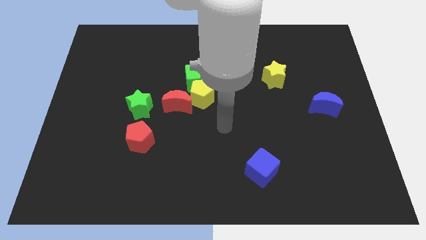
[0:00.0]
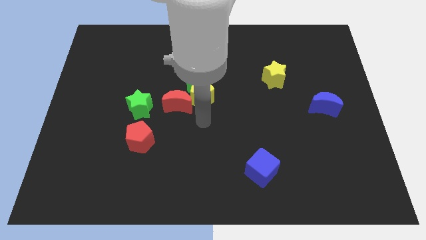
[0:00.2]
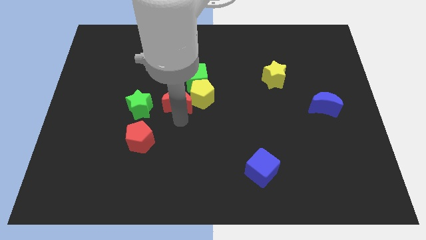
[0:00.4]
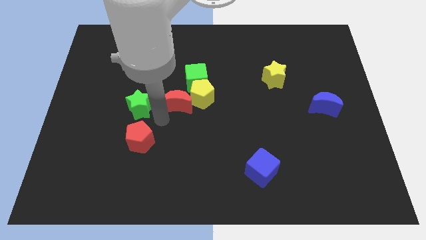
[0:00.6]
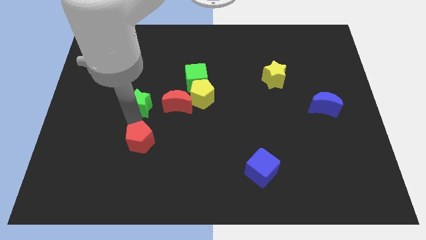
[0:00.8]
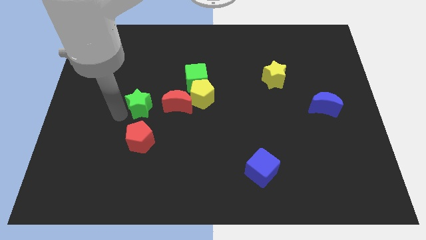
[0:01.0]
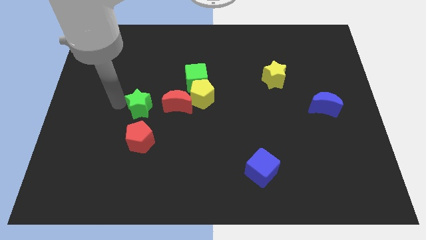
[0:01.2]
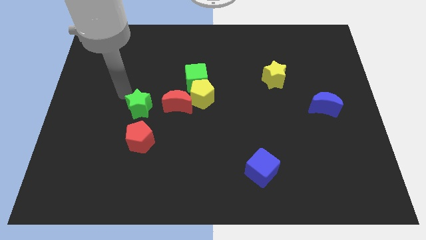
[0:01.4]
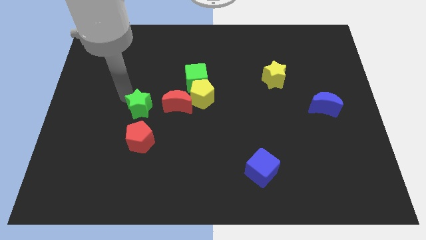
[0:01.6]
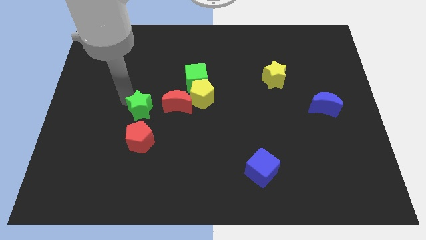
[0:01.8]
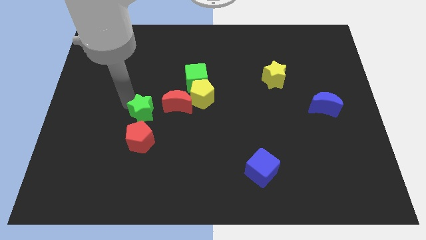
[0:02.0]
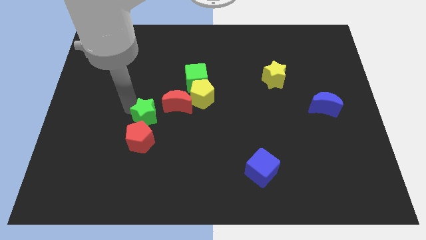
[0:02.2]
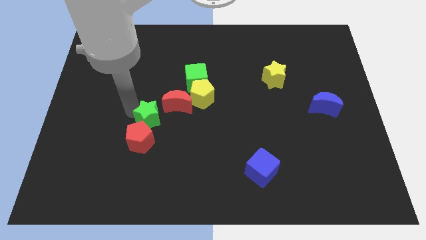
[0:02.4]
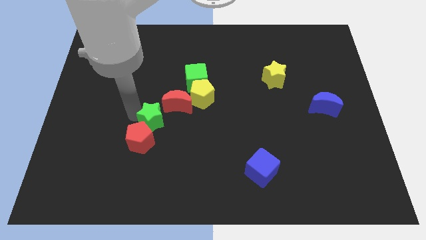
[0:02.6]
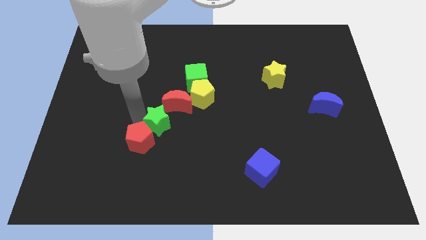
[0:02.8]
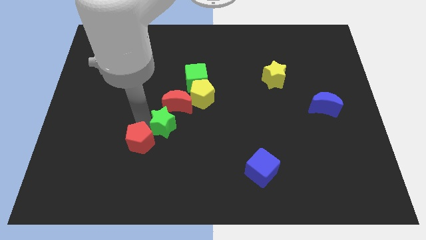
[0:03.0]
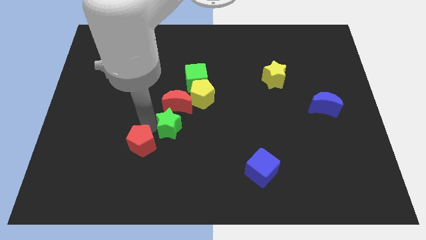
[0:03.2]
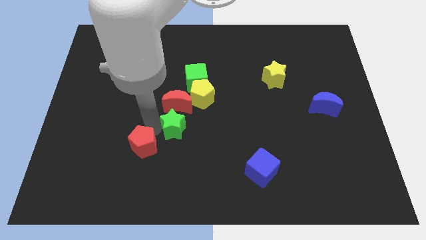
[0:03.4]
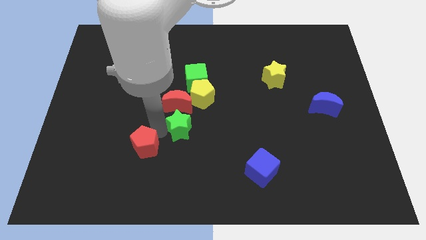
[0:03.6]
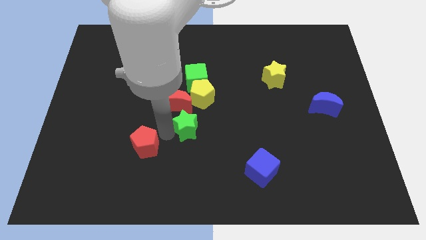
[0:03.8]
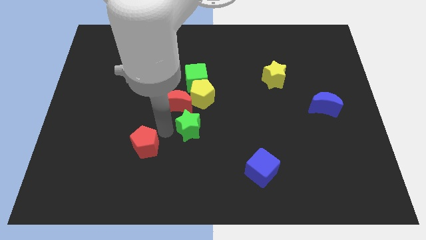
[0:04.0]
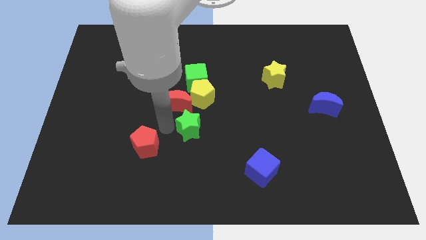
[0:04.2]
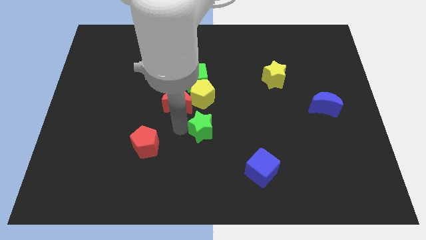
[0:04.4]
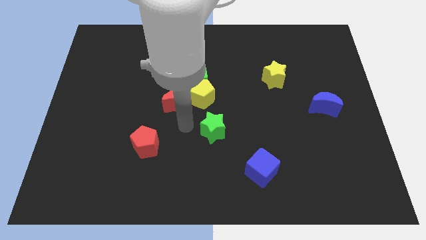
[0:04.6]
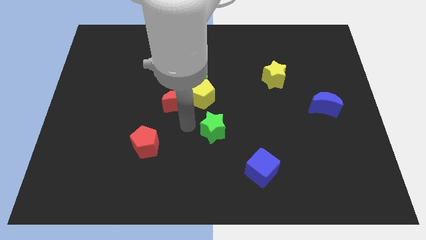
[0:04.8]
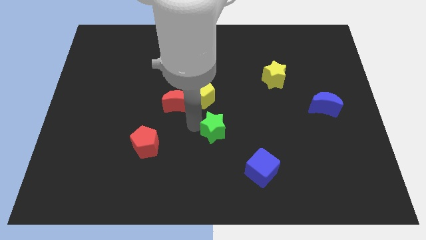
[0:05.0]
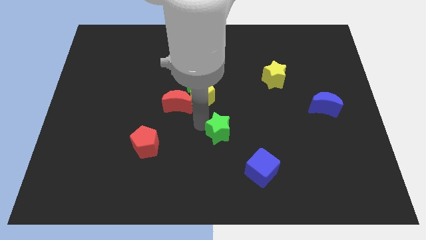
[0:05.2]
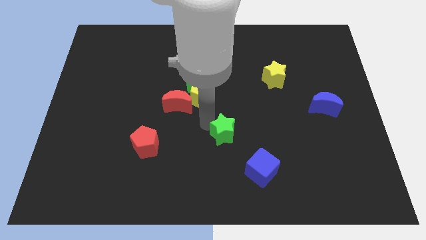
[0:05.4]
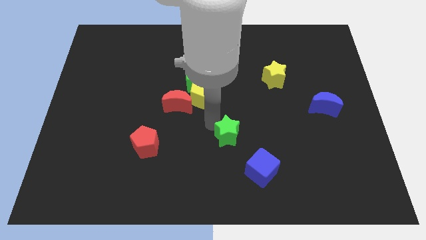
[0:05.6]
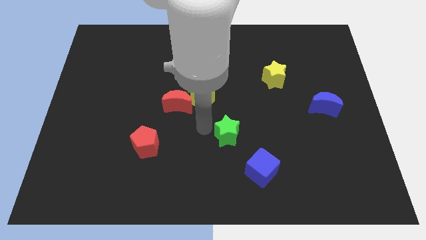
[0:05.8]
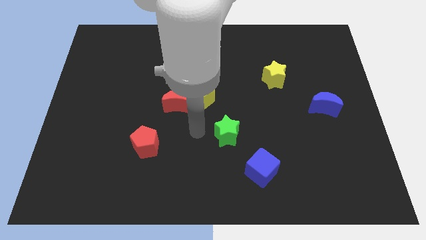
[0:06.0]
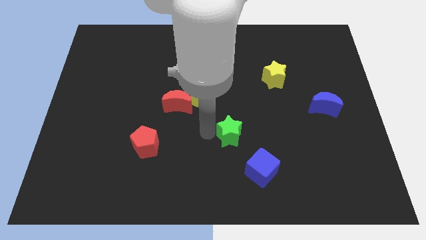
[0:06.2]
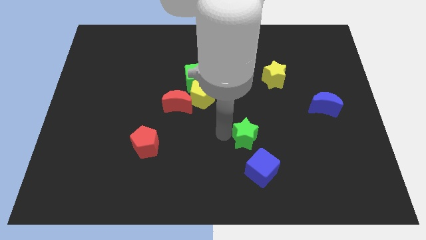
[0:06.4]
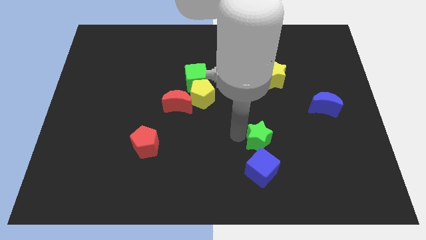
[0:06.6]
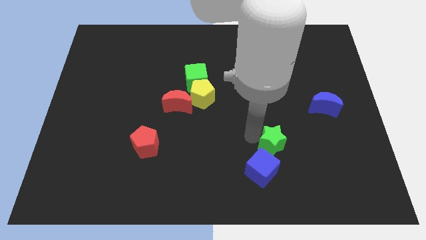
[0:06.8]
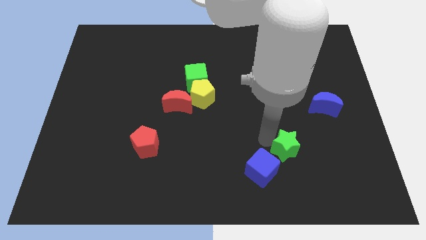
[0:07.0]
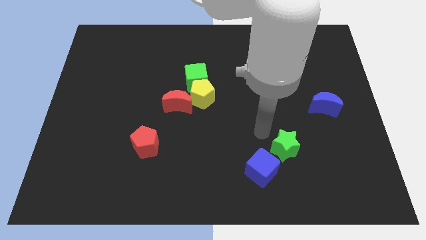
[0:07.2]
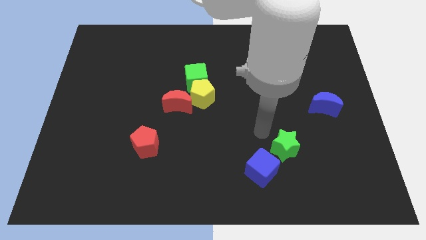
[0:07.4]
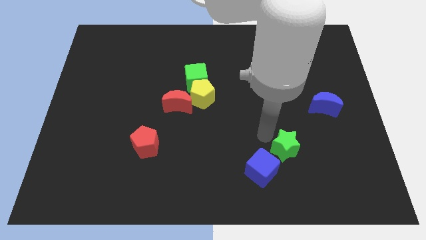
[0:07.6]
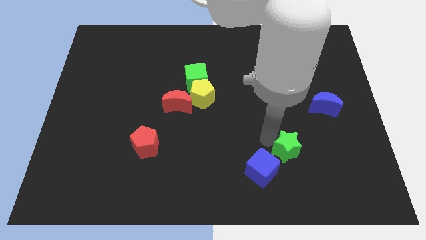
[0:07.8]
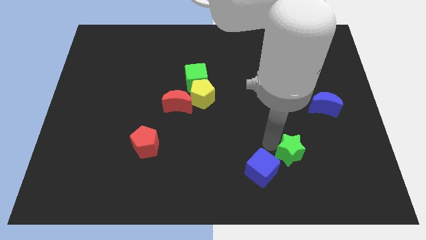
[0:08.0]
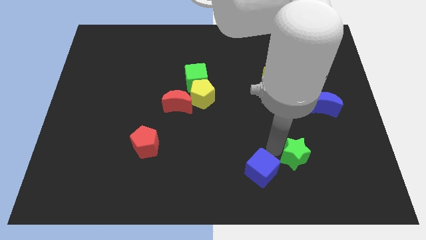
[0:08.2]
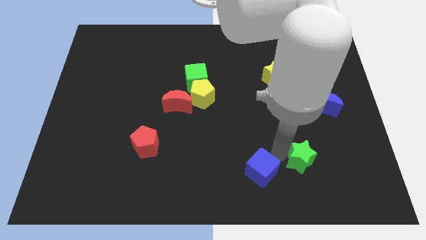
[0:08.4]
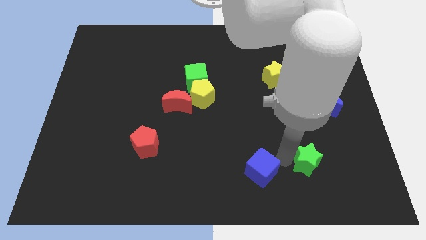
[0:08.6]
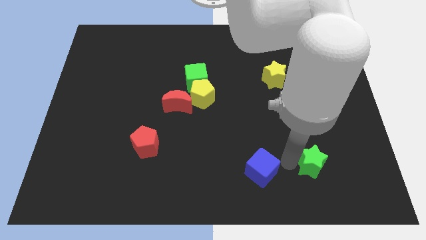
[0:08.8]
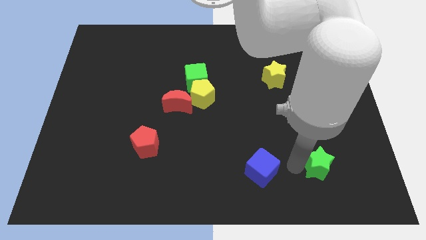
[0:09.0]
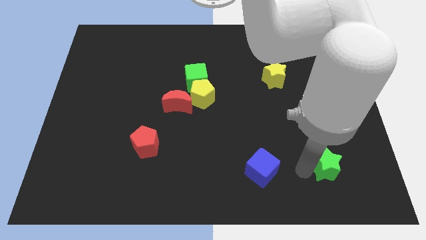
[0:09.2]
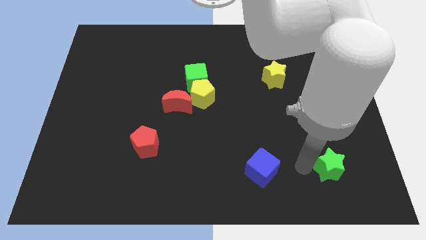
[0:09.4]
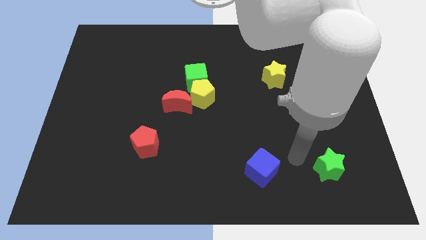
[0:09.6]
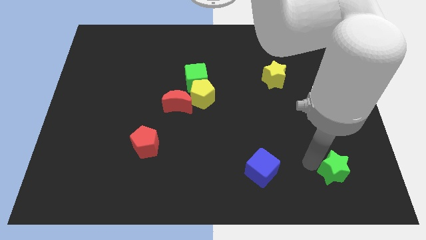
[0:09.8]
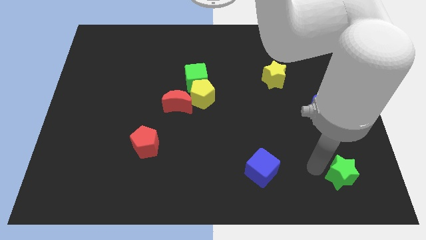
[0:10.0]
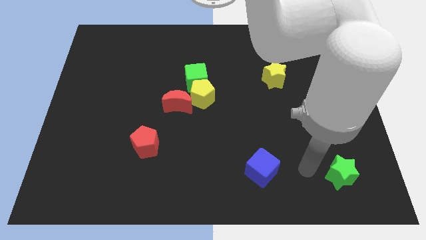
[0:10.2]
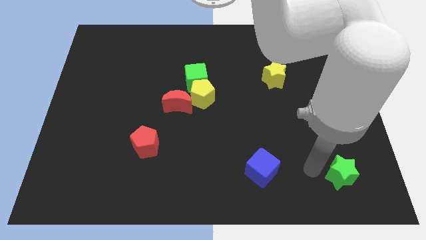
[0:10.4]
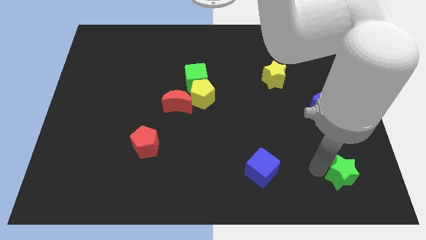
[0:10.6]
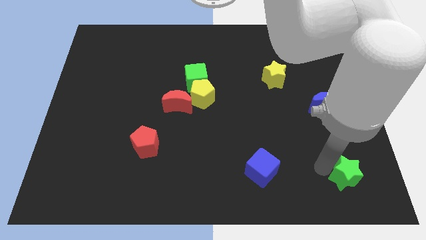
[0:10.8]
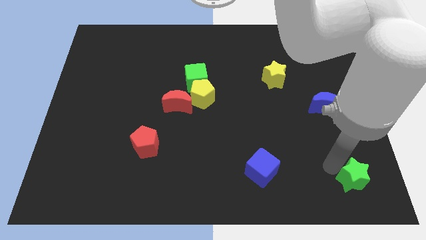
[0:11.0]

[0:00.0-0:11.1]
move the green star to the bottom right of the board
